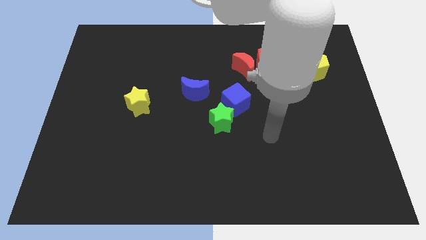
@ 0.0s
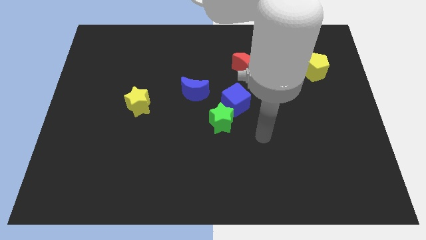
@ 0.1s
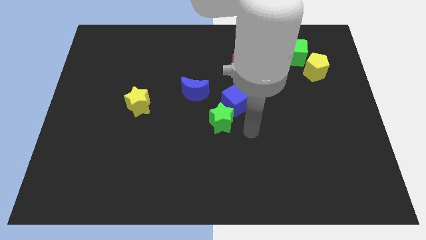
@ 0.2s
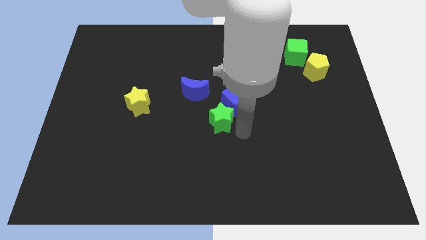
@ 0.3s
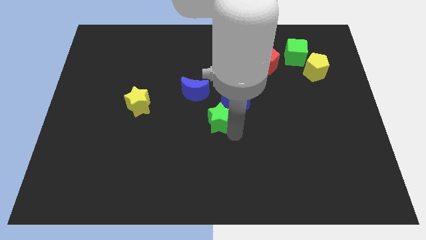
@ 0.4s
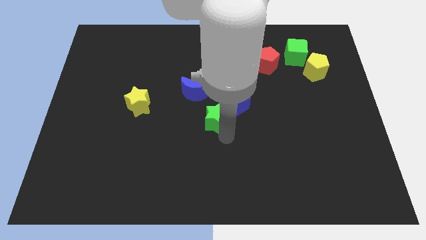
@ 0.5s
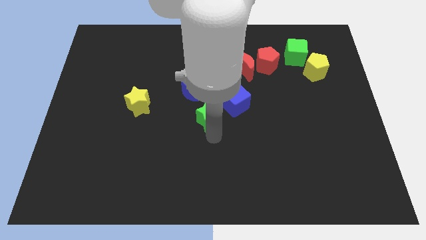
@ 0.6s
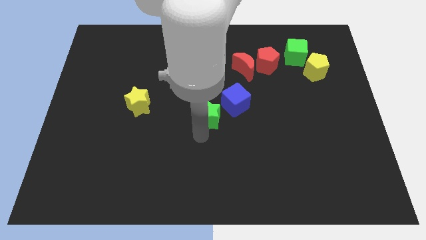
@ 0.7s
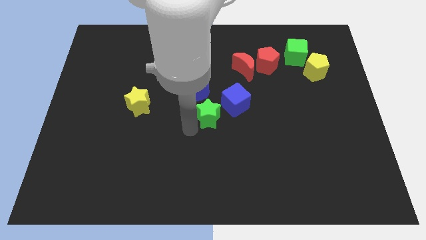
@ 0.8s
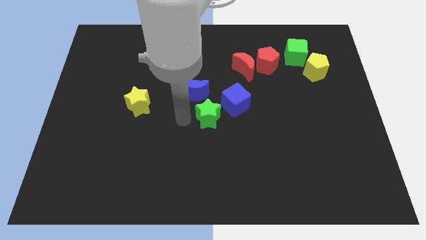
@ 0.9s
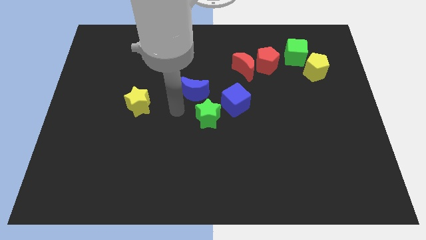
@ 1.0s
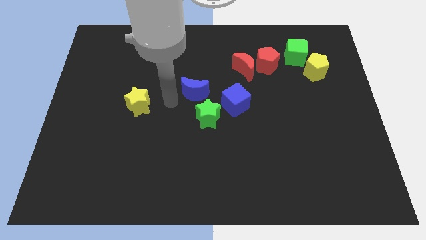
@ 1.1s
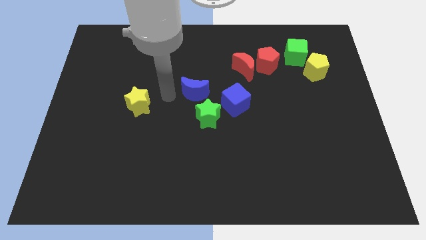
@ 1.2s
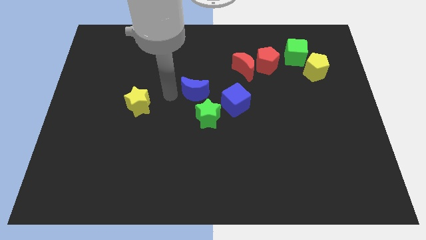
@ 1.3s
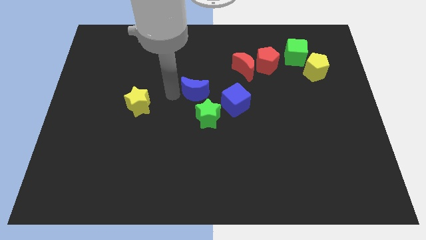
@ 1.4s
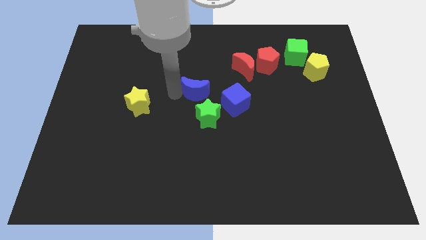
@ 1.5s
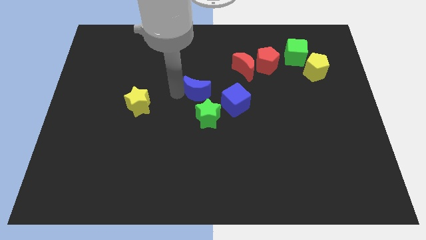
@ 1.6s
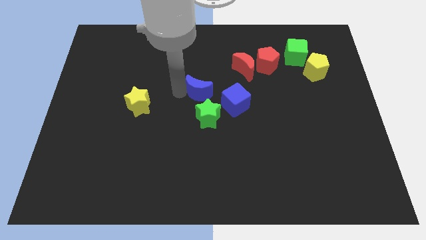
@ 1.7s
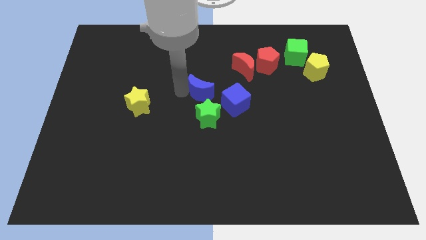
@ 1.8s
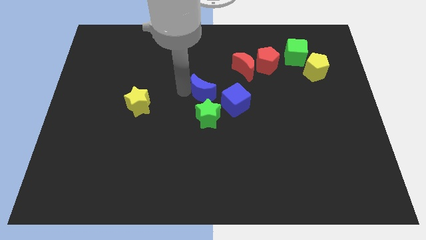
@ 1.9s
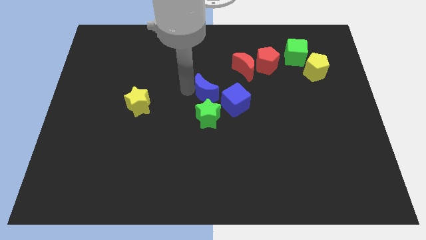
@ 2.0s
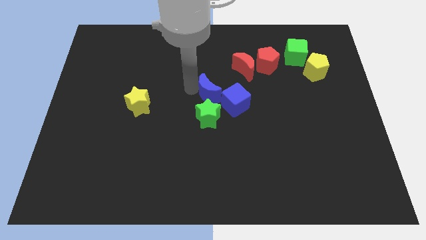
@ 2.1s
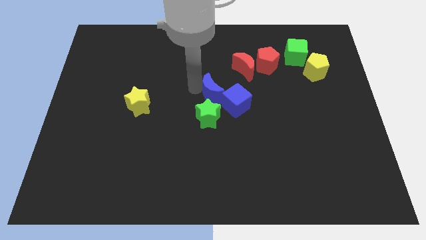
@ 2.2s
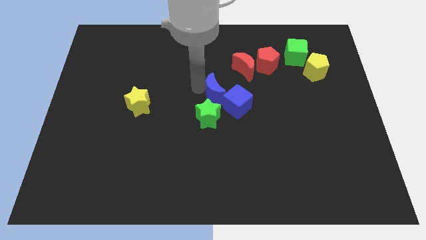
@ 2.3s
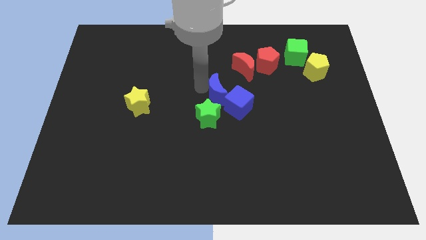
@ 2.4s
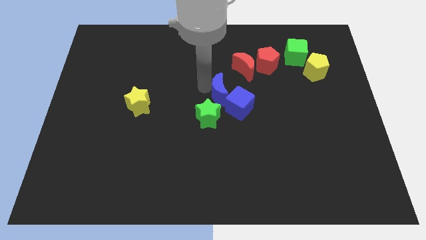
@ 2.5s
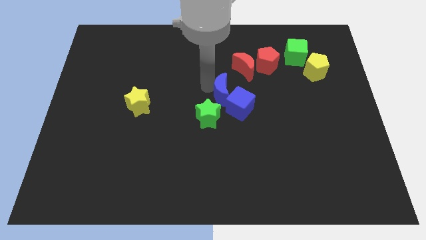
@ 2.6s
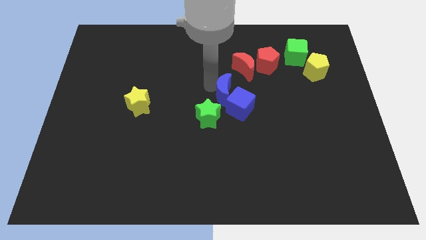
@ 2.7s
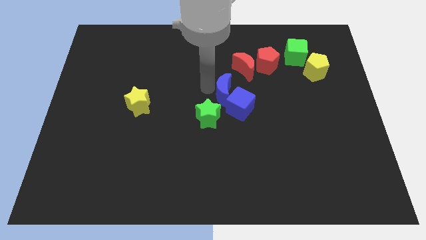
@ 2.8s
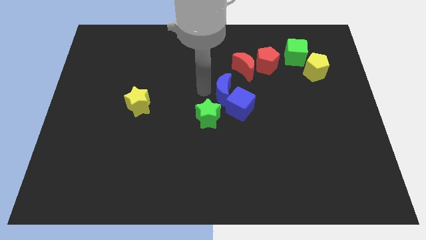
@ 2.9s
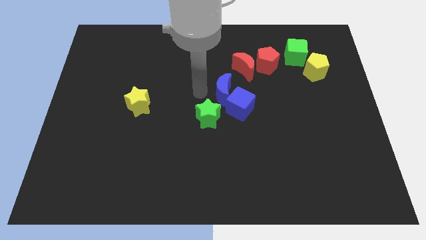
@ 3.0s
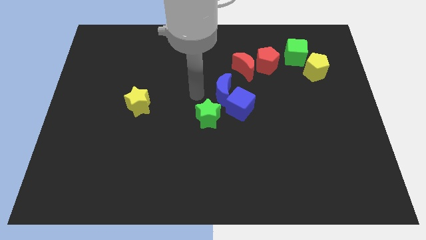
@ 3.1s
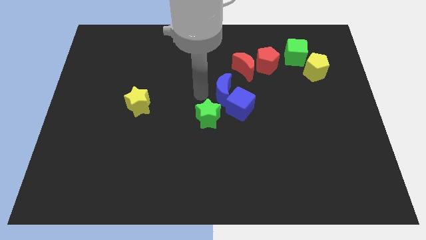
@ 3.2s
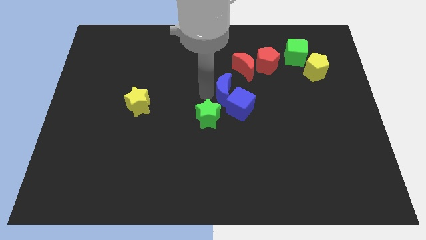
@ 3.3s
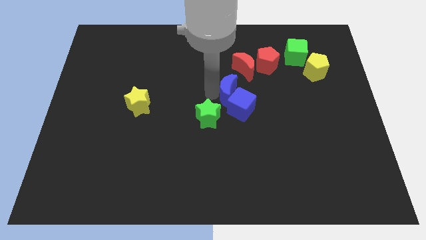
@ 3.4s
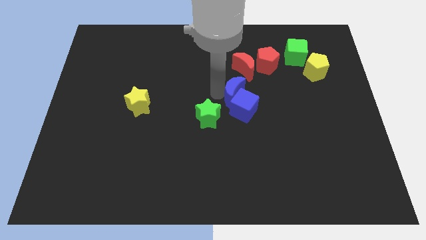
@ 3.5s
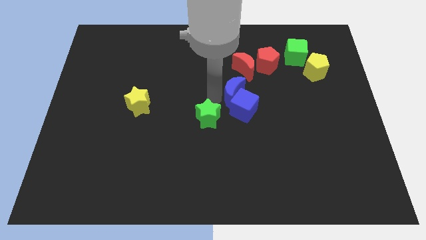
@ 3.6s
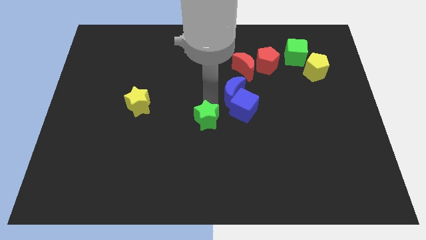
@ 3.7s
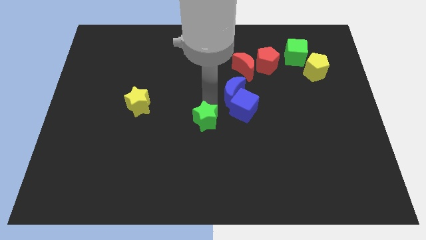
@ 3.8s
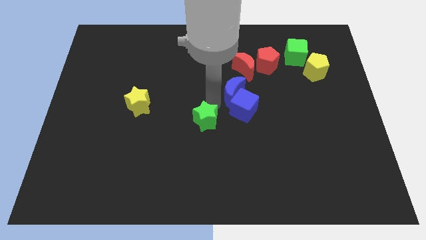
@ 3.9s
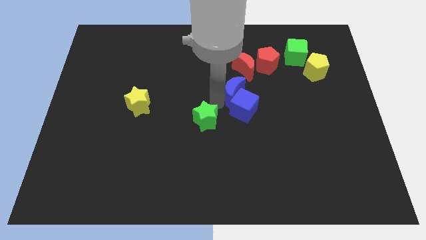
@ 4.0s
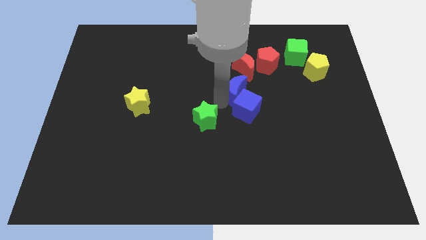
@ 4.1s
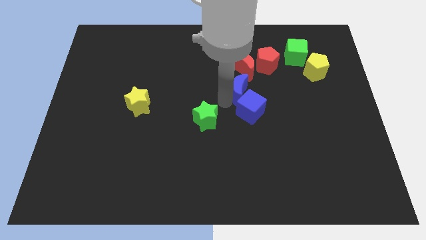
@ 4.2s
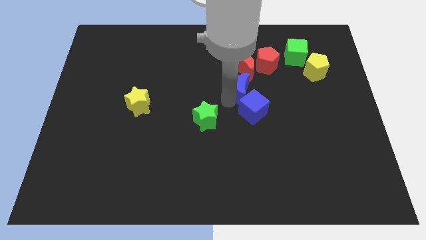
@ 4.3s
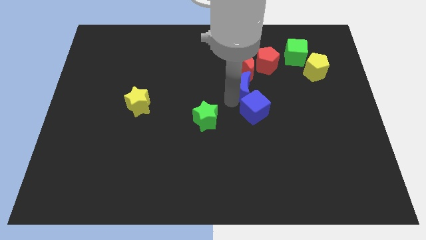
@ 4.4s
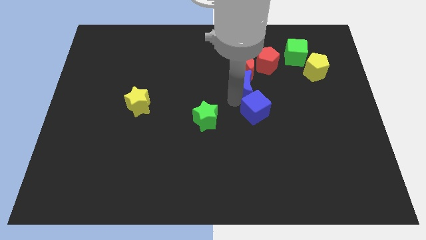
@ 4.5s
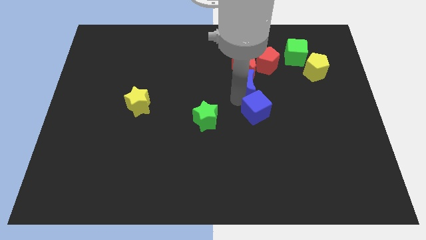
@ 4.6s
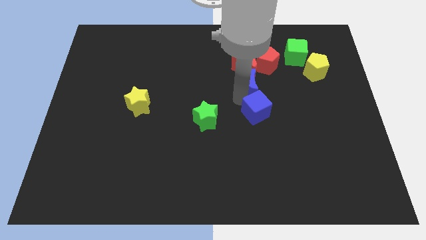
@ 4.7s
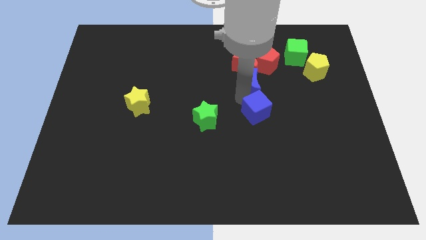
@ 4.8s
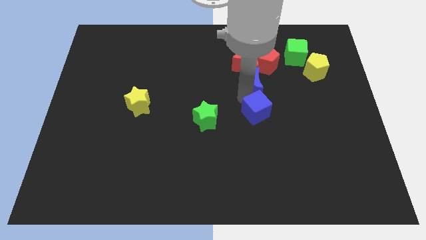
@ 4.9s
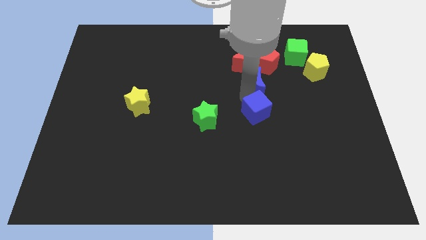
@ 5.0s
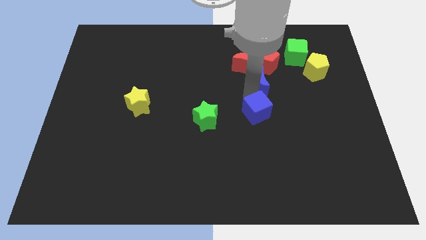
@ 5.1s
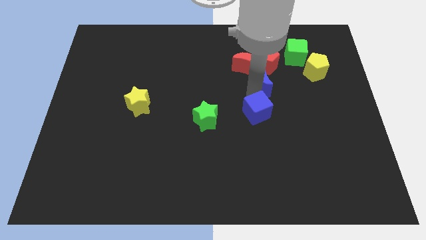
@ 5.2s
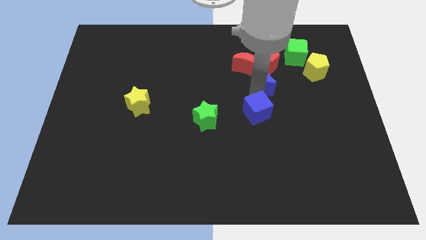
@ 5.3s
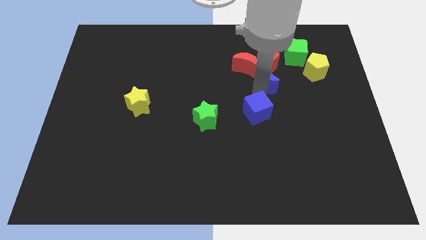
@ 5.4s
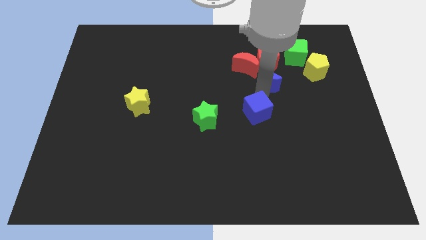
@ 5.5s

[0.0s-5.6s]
slide the blue moon next to the red pentagon

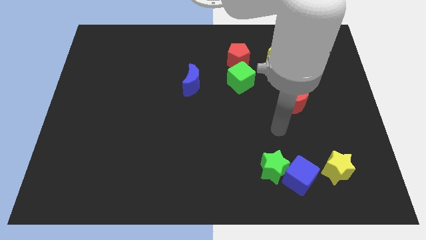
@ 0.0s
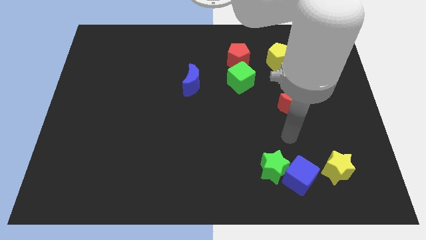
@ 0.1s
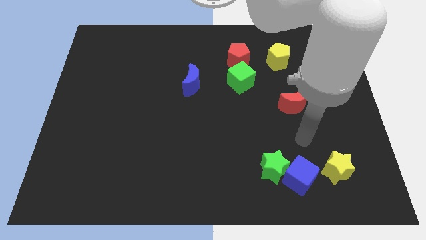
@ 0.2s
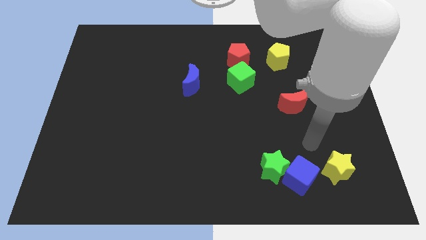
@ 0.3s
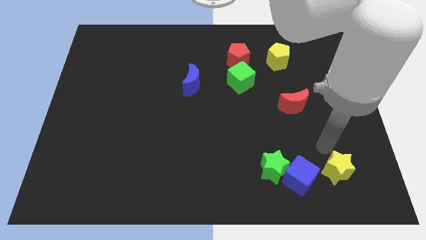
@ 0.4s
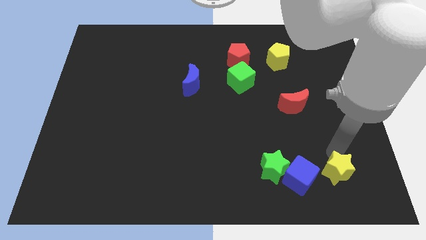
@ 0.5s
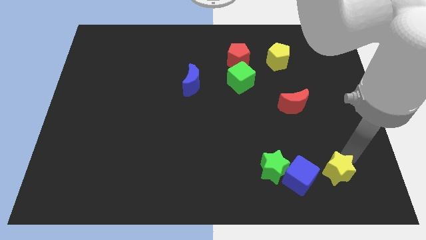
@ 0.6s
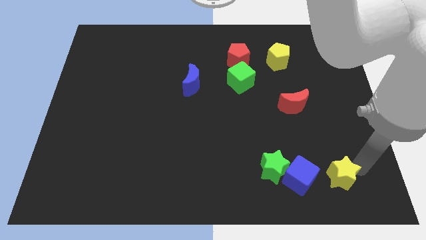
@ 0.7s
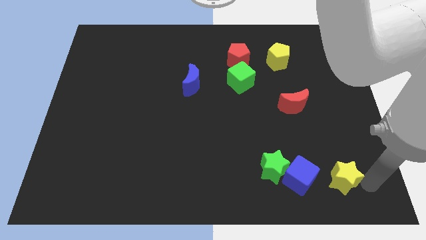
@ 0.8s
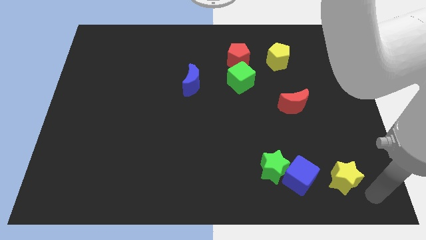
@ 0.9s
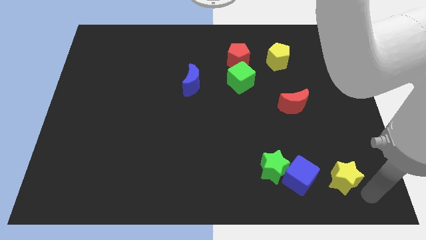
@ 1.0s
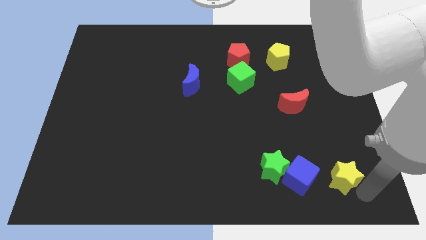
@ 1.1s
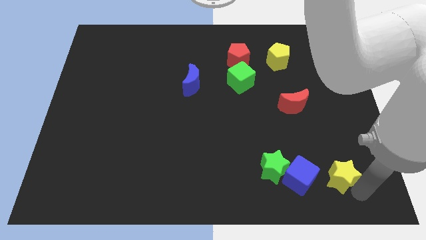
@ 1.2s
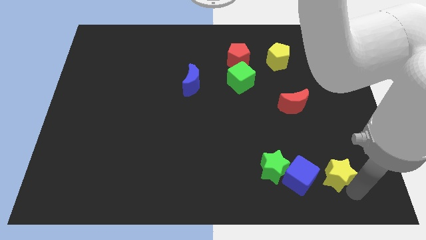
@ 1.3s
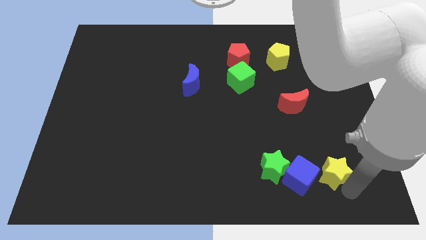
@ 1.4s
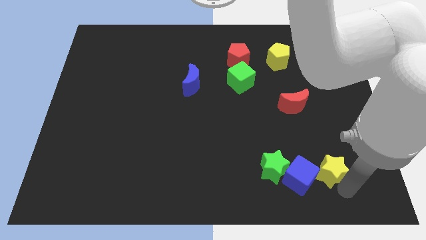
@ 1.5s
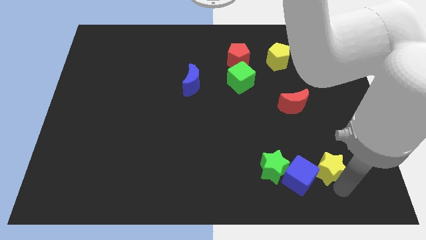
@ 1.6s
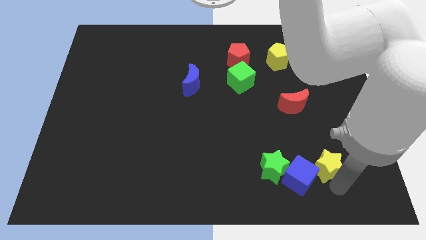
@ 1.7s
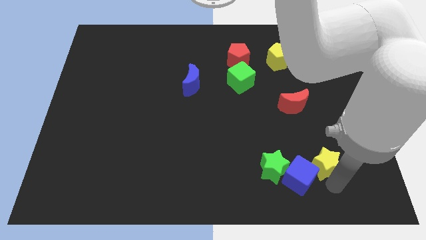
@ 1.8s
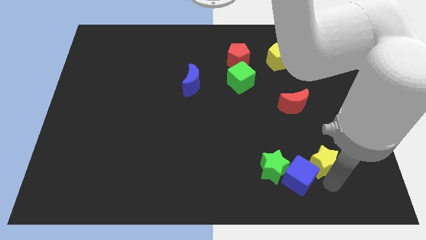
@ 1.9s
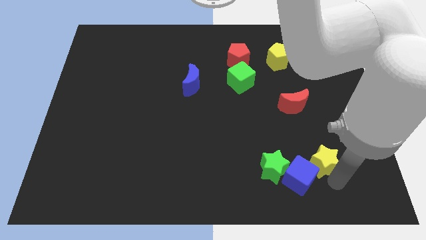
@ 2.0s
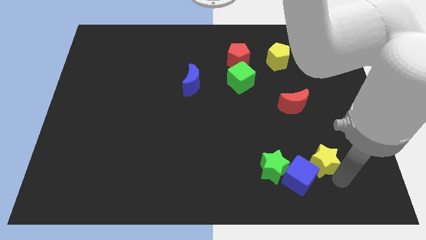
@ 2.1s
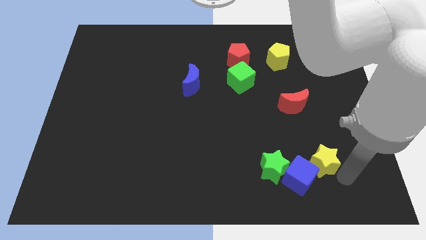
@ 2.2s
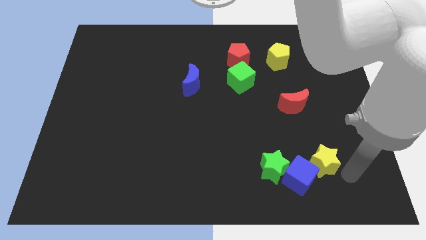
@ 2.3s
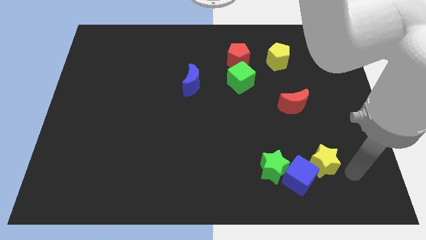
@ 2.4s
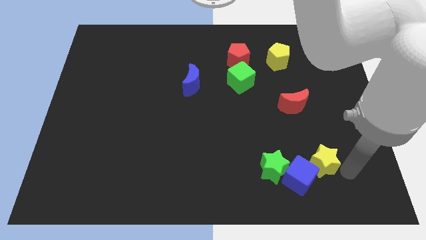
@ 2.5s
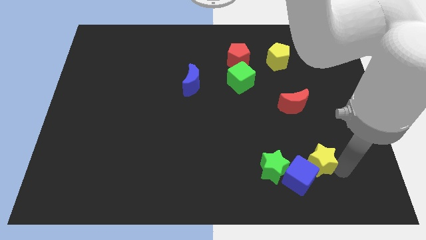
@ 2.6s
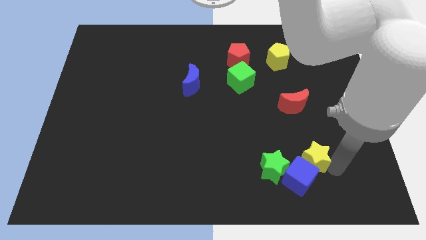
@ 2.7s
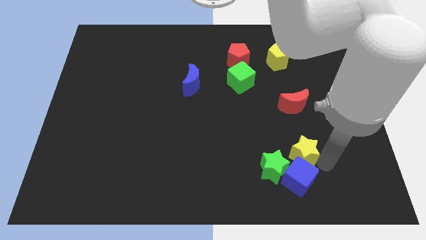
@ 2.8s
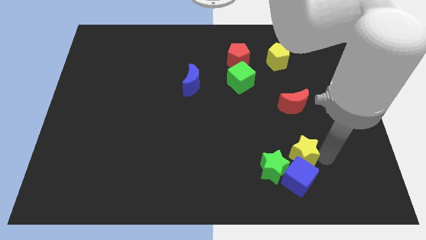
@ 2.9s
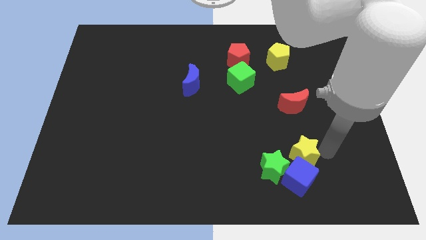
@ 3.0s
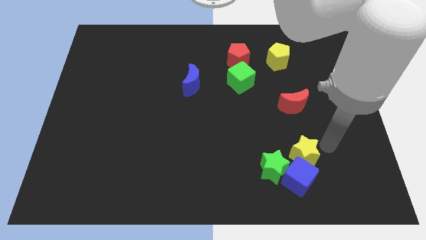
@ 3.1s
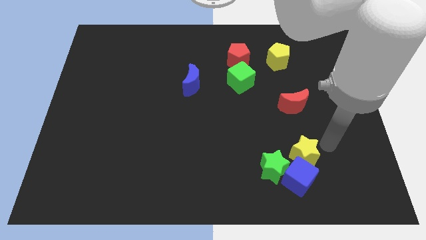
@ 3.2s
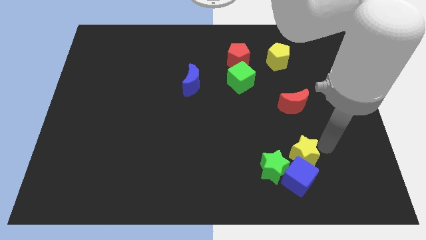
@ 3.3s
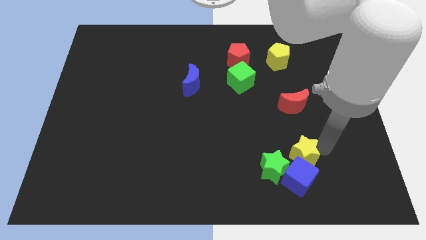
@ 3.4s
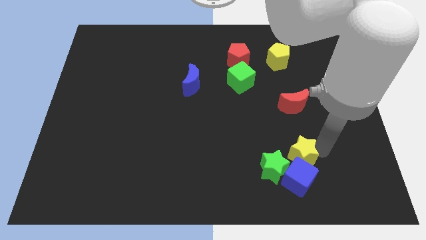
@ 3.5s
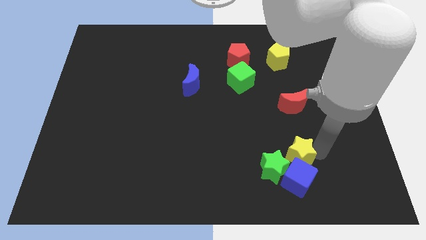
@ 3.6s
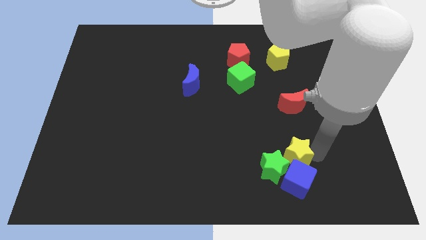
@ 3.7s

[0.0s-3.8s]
move the yellow star towards the green star
